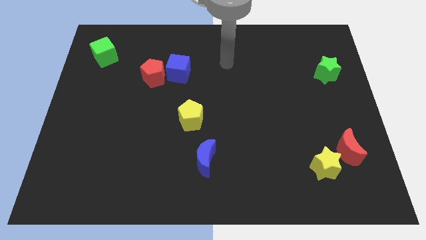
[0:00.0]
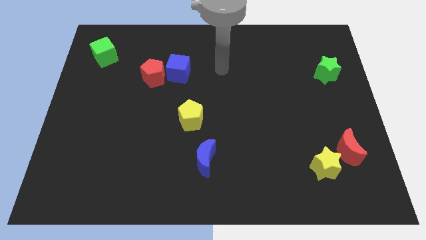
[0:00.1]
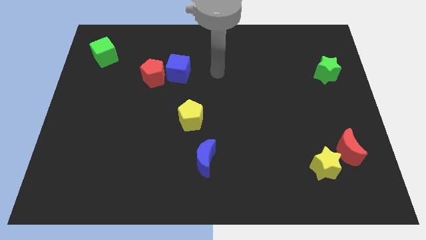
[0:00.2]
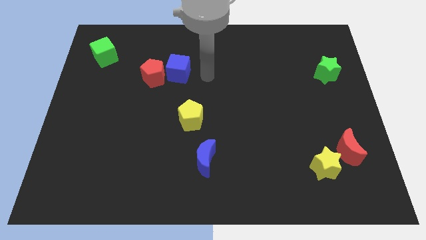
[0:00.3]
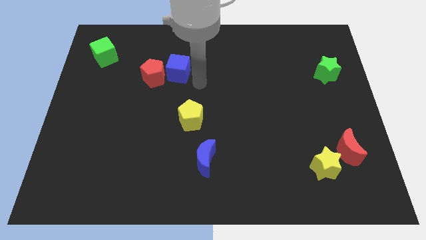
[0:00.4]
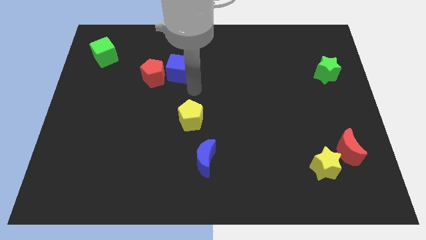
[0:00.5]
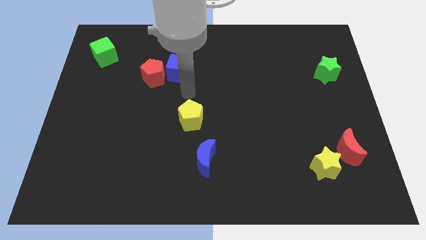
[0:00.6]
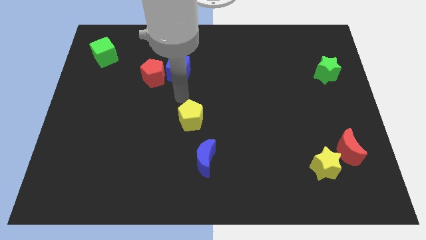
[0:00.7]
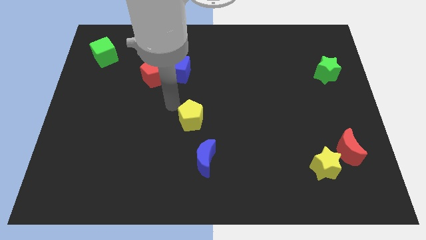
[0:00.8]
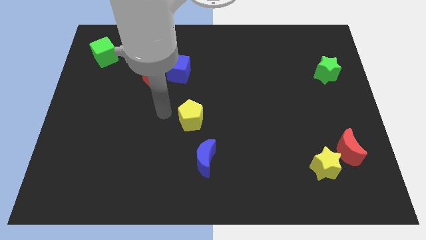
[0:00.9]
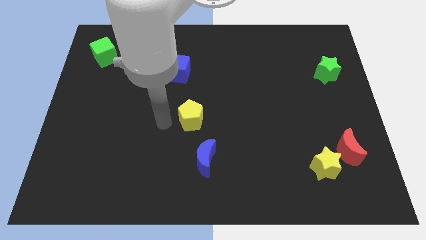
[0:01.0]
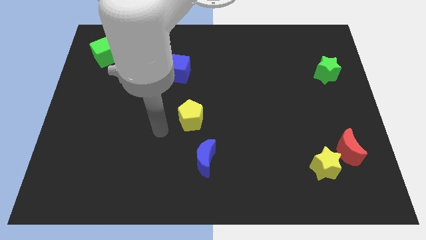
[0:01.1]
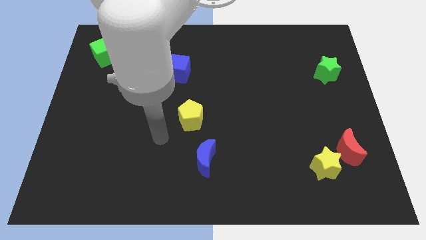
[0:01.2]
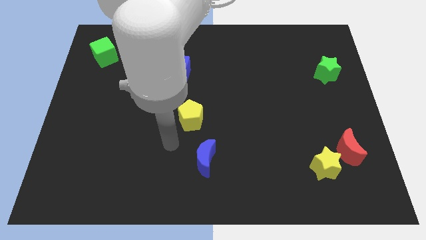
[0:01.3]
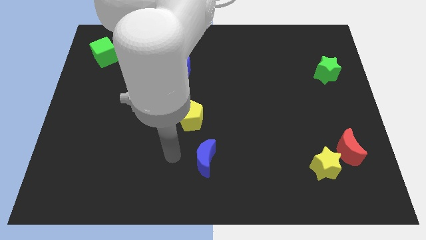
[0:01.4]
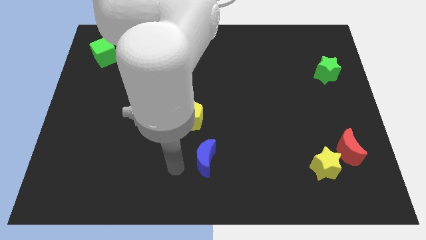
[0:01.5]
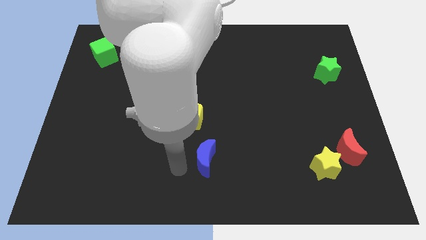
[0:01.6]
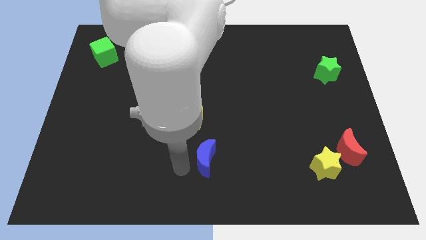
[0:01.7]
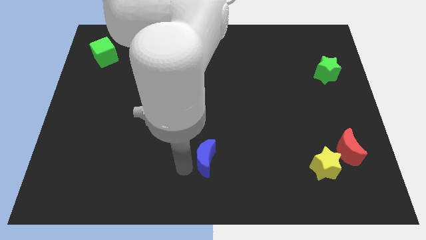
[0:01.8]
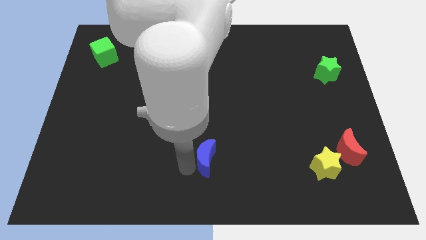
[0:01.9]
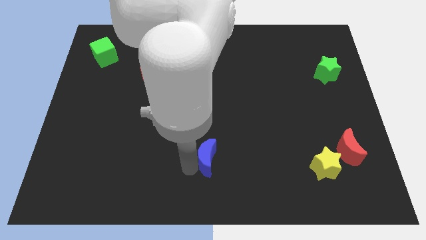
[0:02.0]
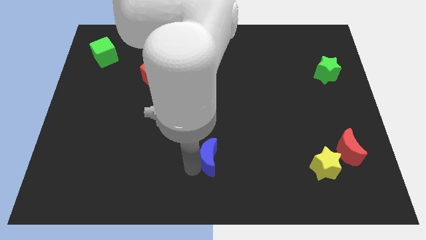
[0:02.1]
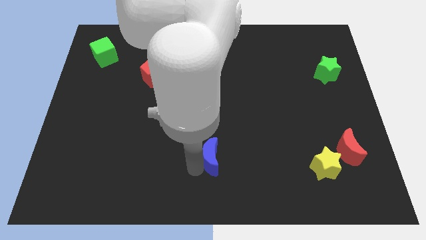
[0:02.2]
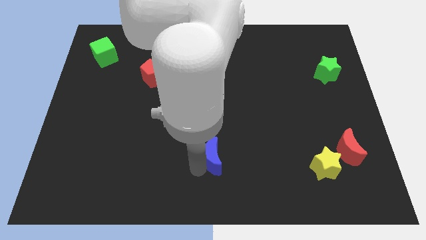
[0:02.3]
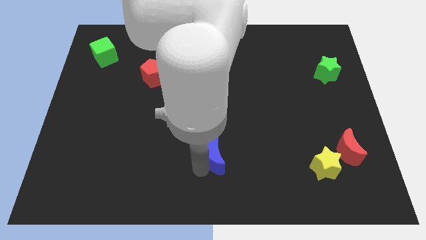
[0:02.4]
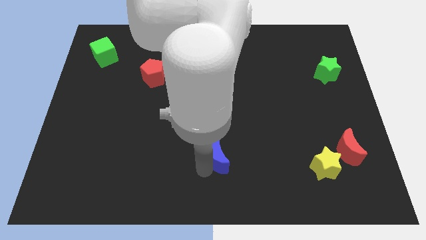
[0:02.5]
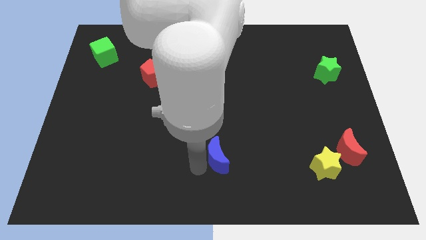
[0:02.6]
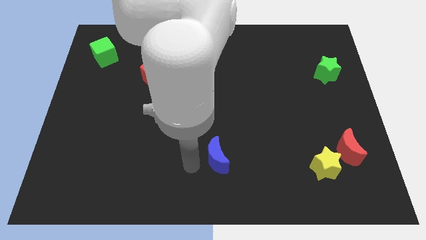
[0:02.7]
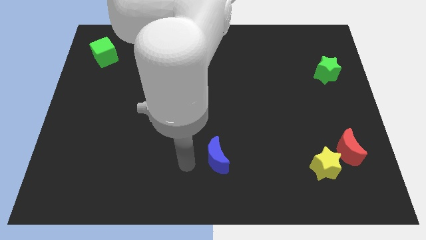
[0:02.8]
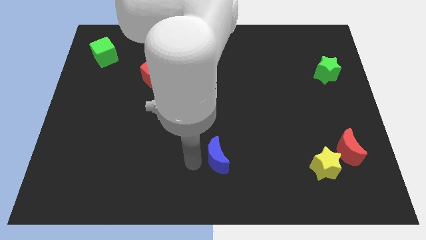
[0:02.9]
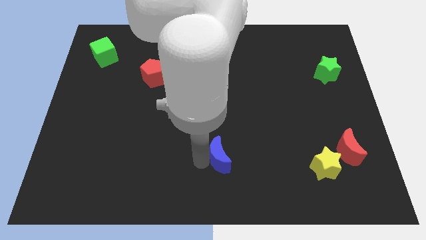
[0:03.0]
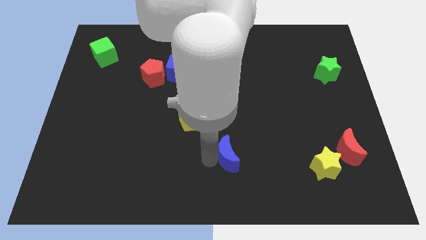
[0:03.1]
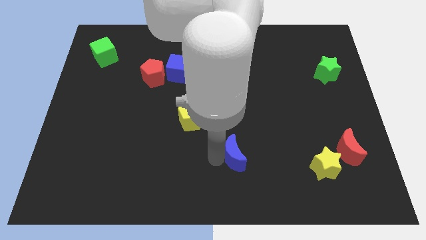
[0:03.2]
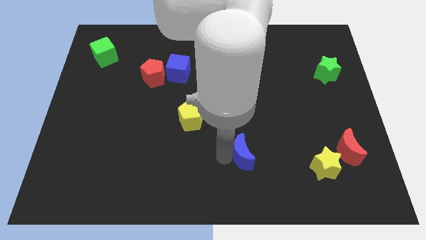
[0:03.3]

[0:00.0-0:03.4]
slide the blue moon to the right a little

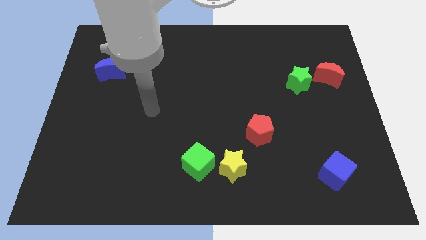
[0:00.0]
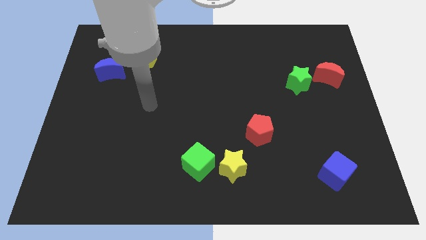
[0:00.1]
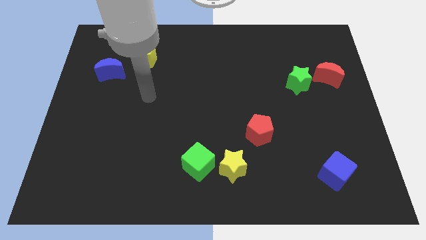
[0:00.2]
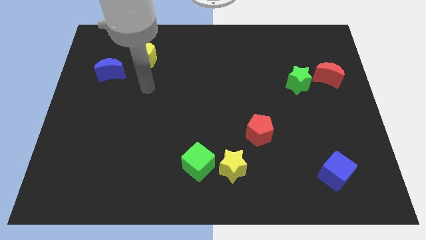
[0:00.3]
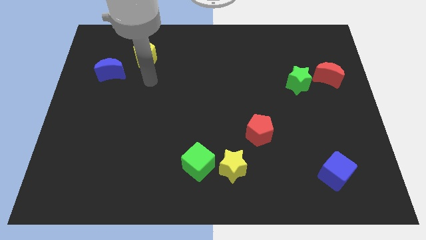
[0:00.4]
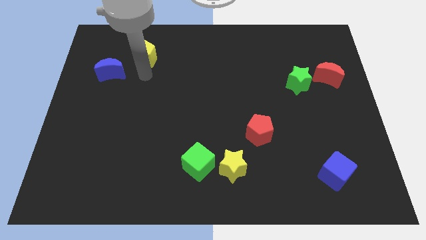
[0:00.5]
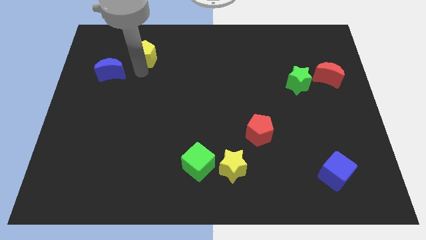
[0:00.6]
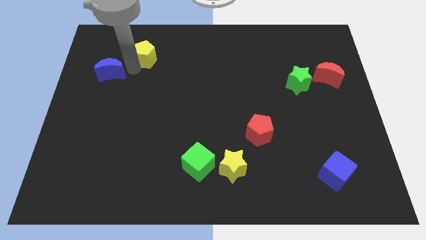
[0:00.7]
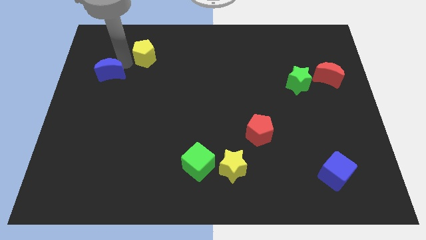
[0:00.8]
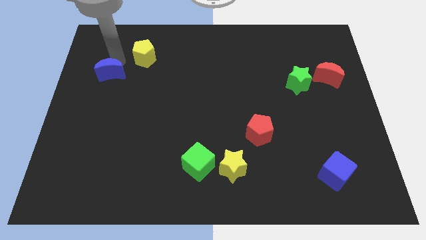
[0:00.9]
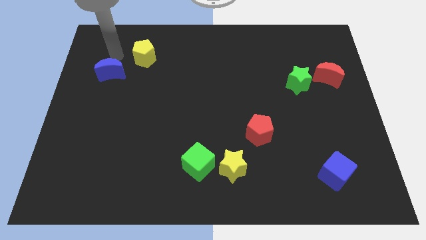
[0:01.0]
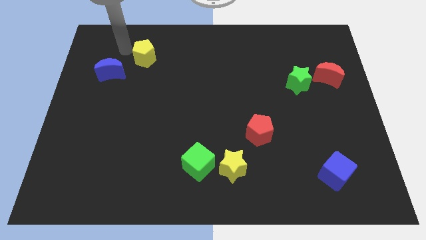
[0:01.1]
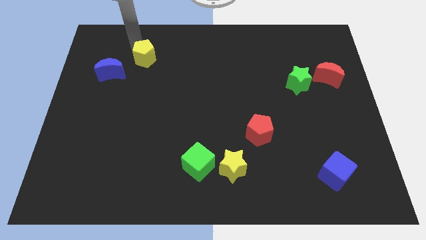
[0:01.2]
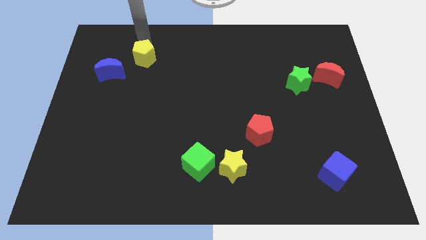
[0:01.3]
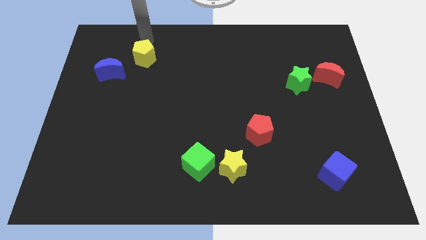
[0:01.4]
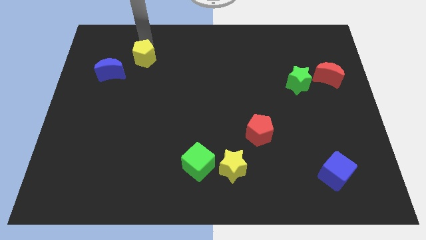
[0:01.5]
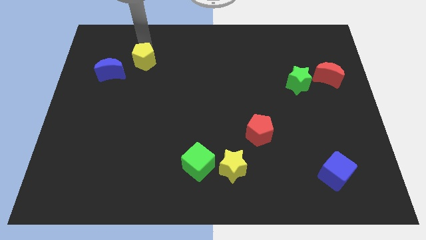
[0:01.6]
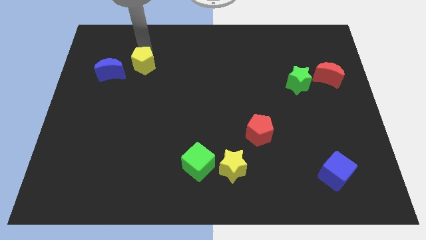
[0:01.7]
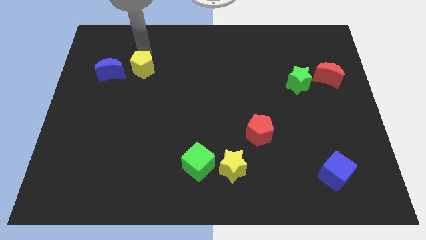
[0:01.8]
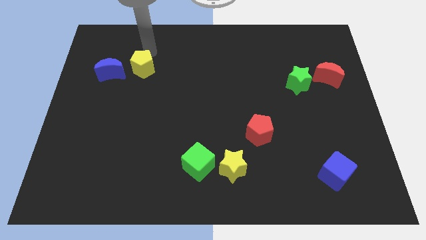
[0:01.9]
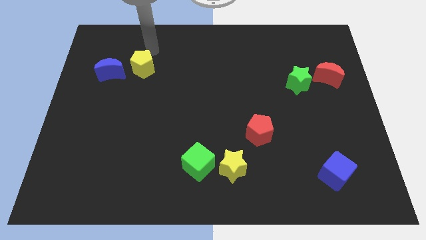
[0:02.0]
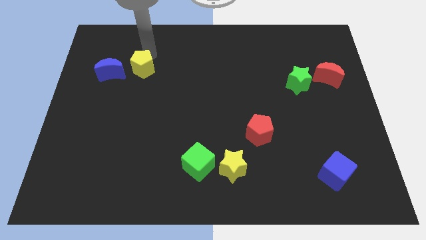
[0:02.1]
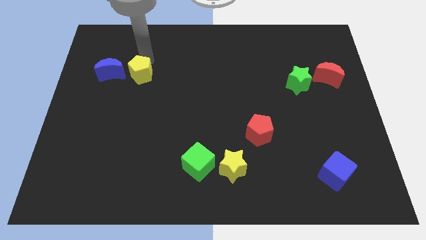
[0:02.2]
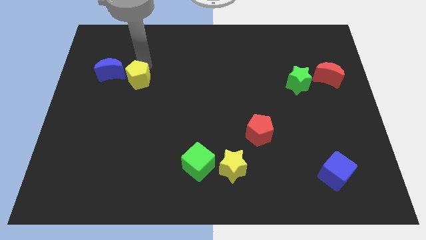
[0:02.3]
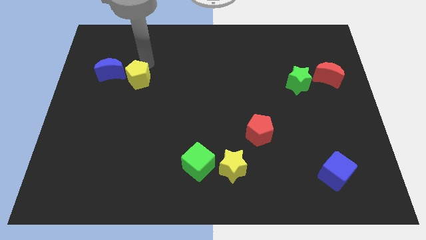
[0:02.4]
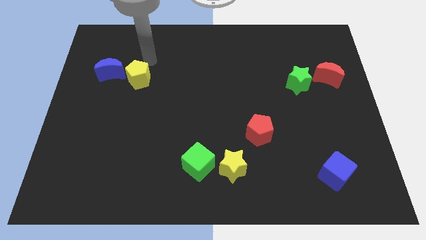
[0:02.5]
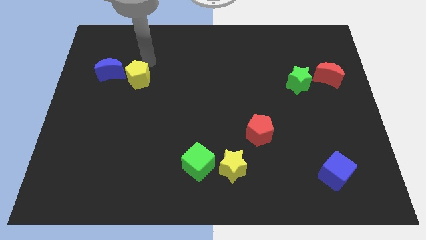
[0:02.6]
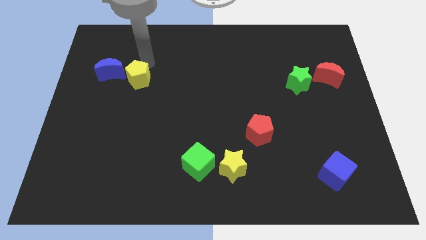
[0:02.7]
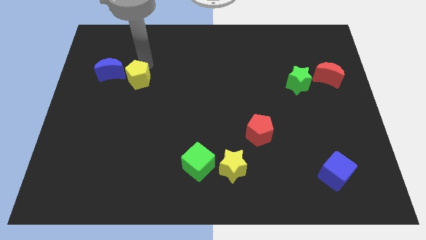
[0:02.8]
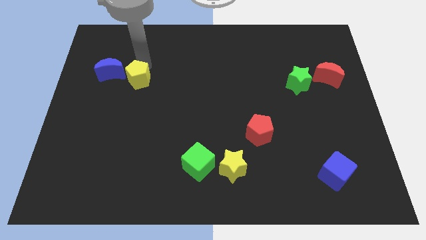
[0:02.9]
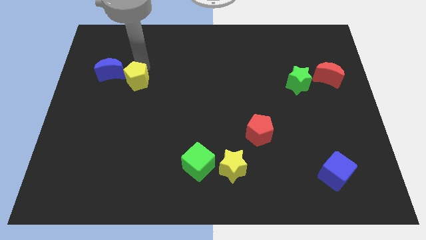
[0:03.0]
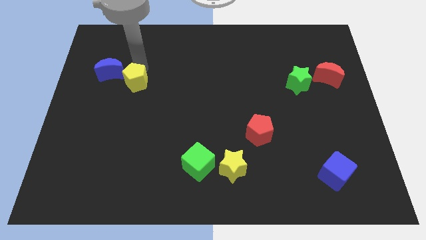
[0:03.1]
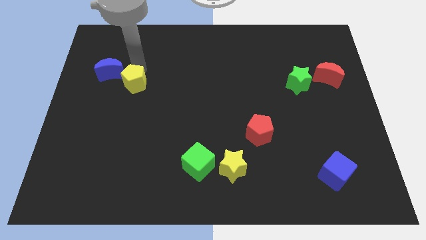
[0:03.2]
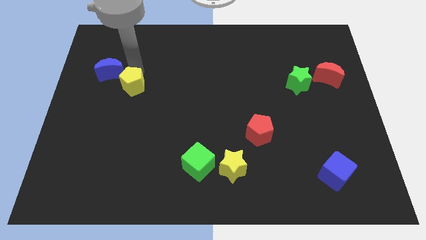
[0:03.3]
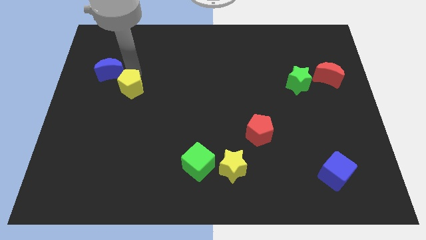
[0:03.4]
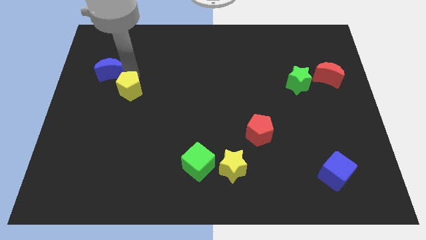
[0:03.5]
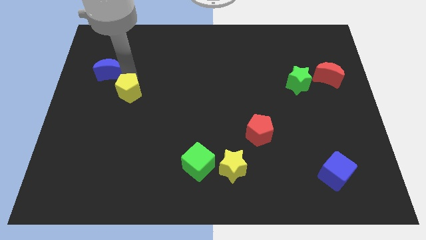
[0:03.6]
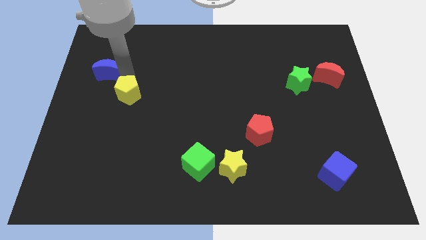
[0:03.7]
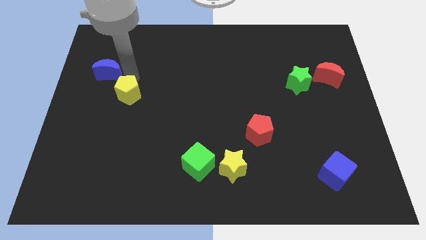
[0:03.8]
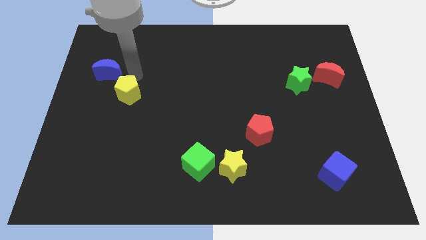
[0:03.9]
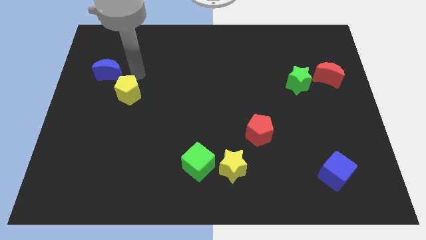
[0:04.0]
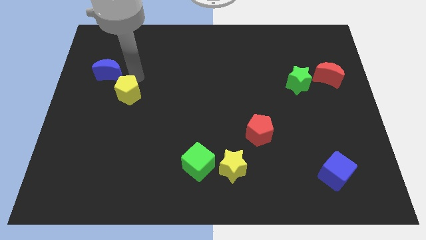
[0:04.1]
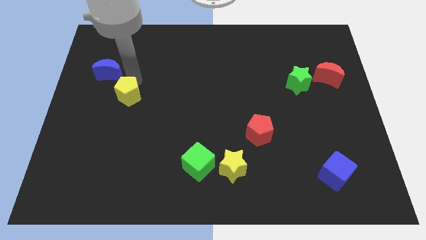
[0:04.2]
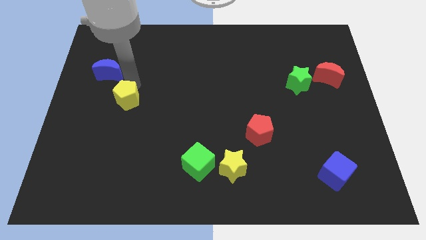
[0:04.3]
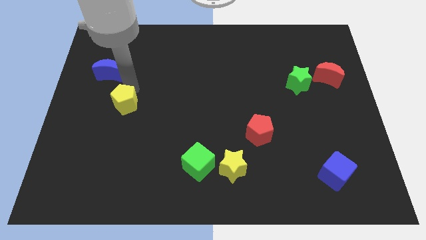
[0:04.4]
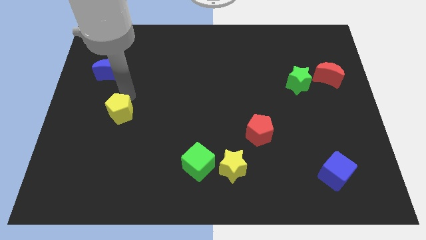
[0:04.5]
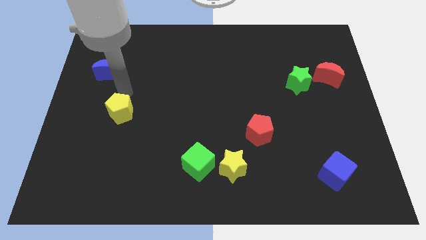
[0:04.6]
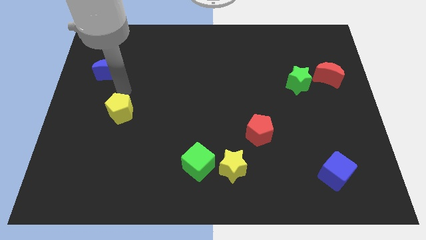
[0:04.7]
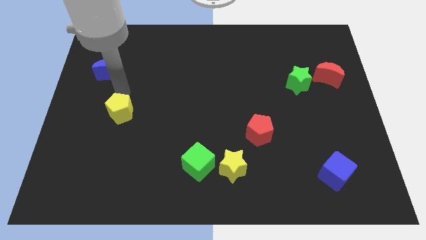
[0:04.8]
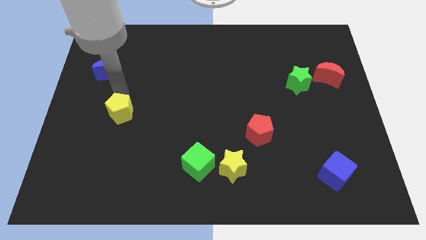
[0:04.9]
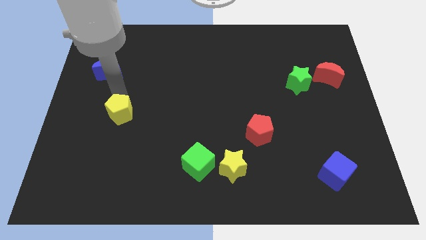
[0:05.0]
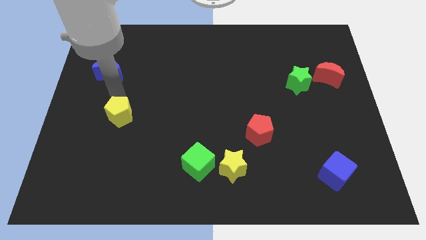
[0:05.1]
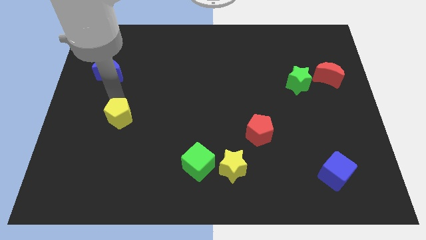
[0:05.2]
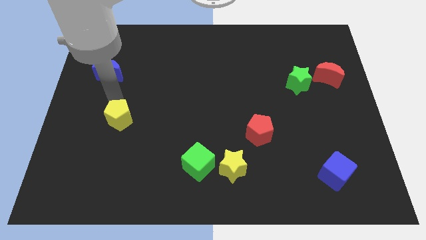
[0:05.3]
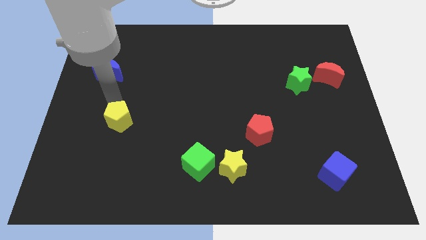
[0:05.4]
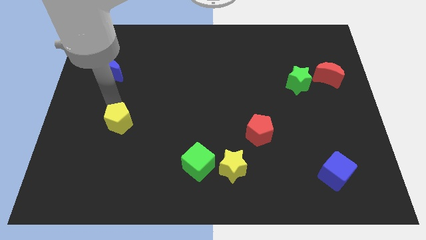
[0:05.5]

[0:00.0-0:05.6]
slide the yellow pentagon down
